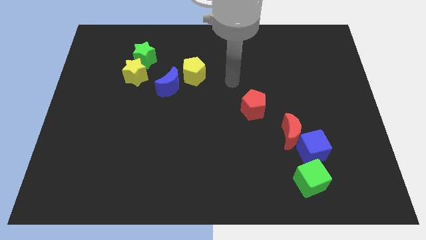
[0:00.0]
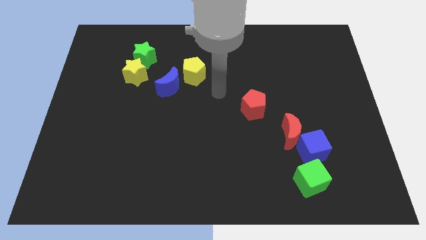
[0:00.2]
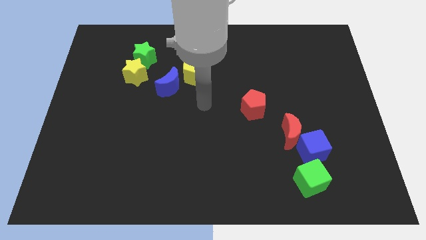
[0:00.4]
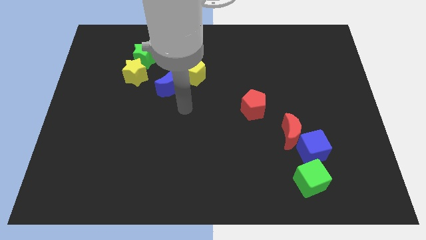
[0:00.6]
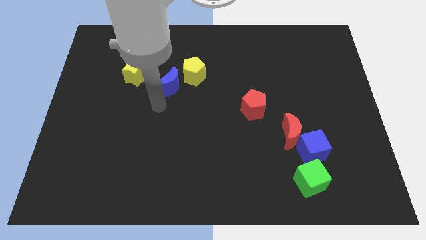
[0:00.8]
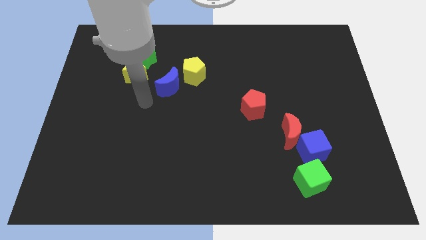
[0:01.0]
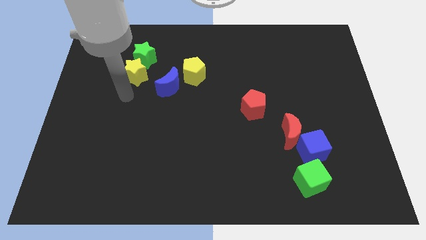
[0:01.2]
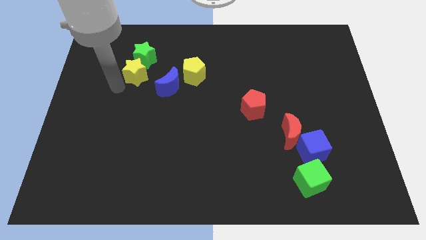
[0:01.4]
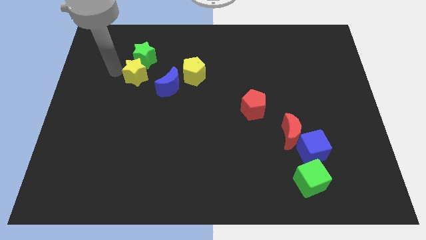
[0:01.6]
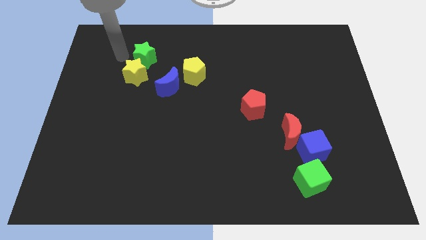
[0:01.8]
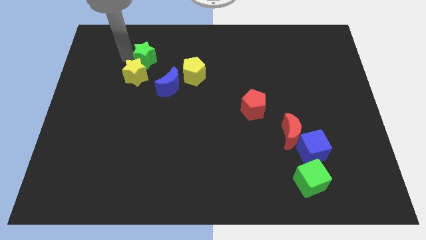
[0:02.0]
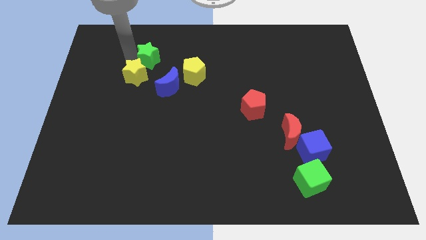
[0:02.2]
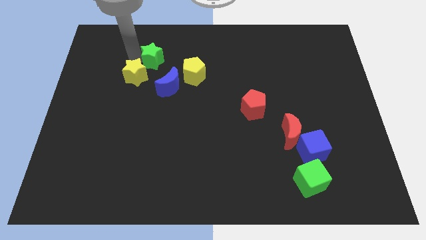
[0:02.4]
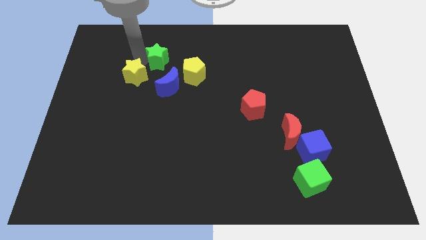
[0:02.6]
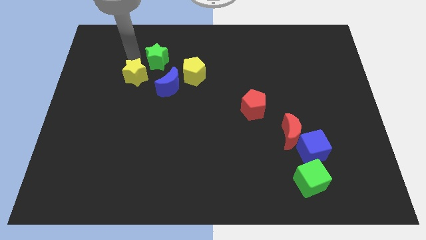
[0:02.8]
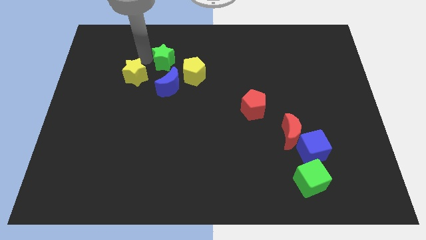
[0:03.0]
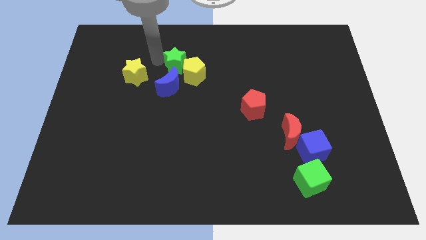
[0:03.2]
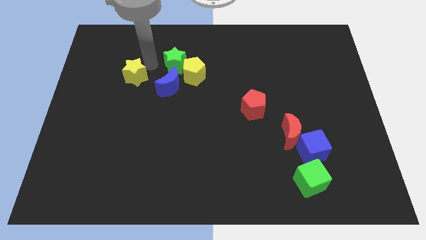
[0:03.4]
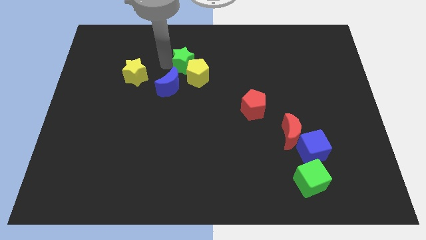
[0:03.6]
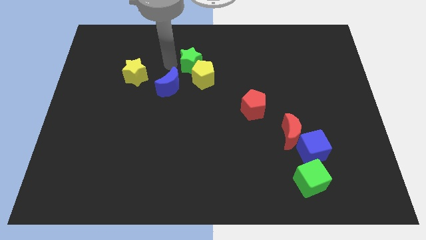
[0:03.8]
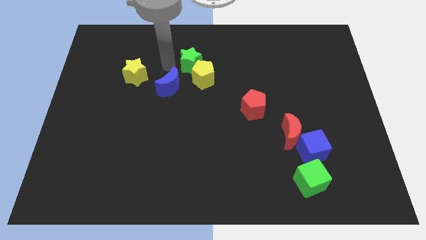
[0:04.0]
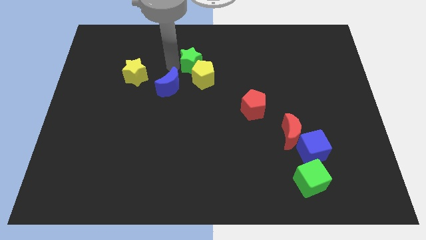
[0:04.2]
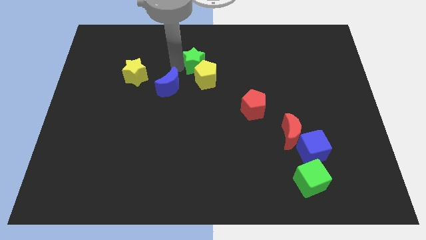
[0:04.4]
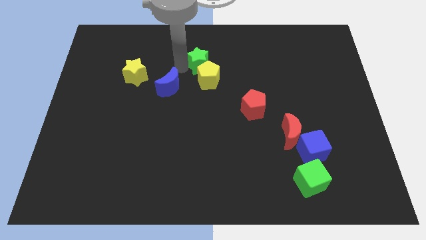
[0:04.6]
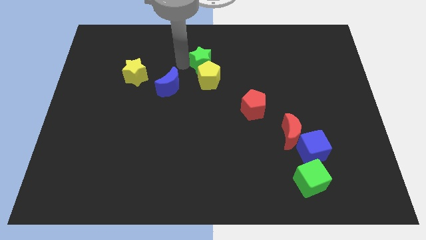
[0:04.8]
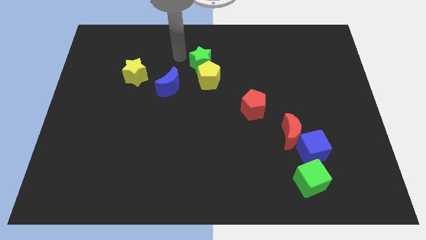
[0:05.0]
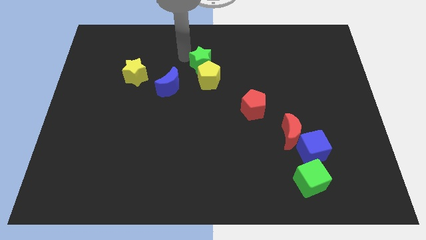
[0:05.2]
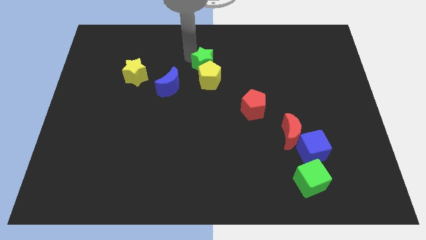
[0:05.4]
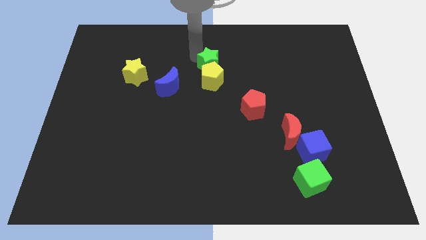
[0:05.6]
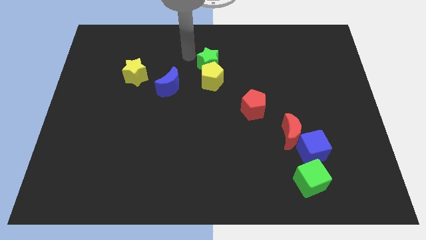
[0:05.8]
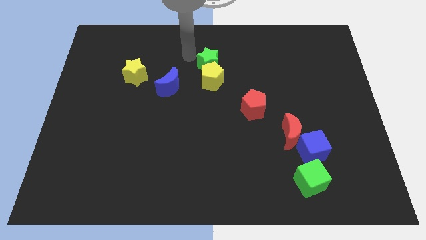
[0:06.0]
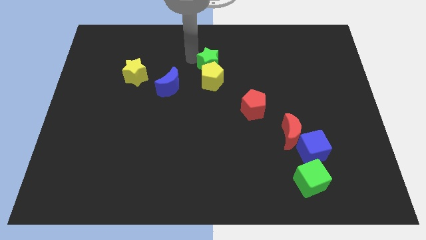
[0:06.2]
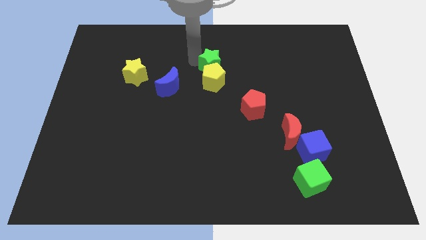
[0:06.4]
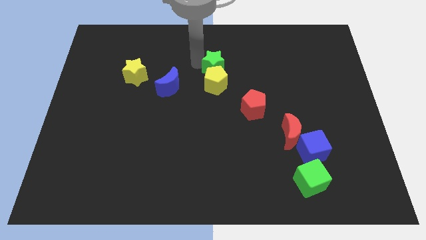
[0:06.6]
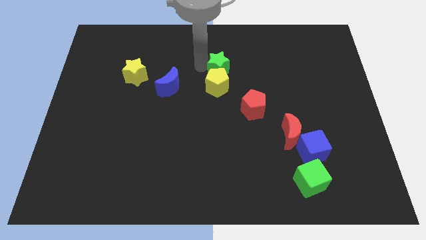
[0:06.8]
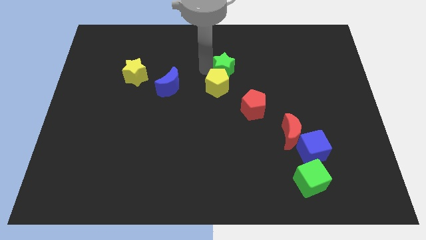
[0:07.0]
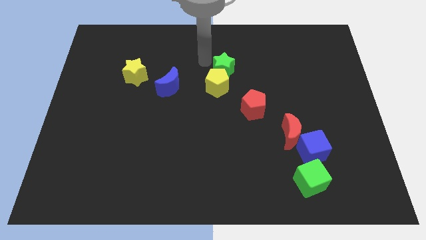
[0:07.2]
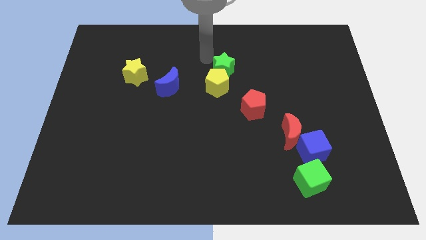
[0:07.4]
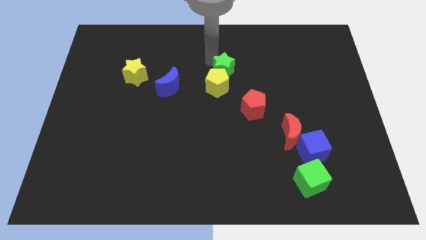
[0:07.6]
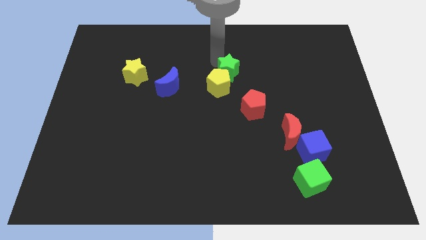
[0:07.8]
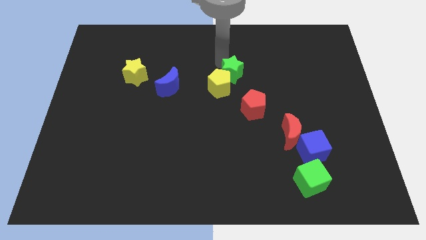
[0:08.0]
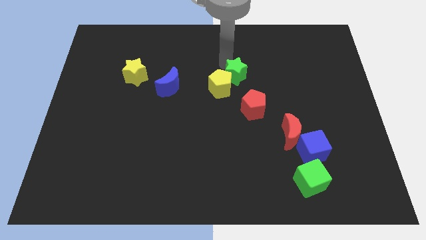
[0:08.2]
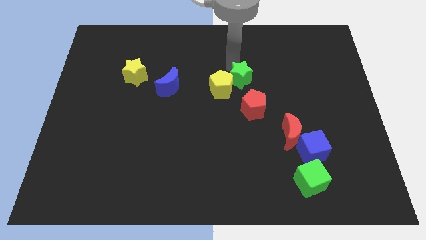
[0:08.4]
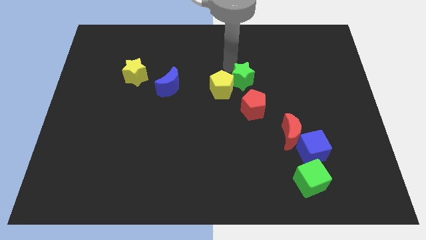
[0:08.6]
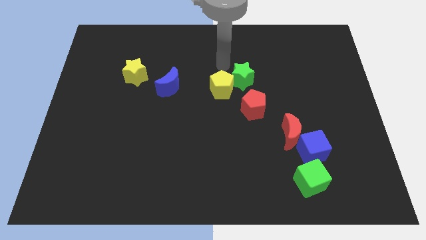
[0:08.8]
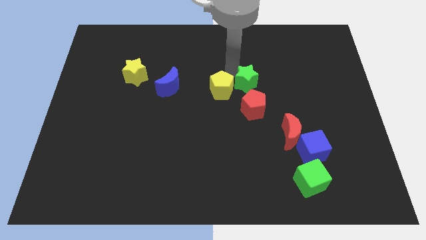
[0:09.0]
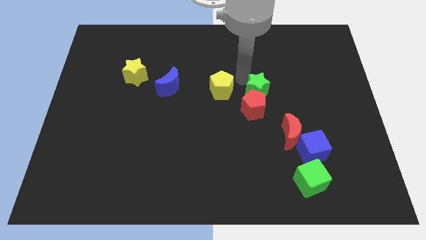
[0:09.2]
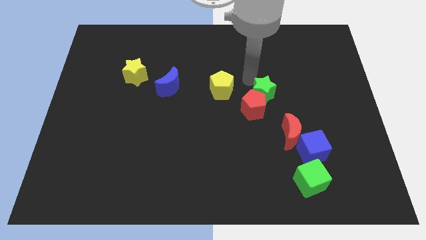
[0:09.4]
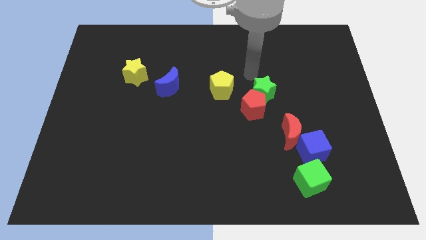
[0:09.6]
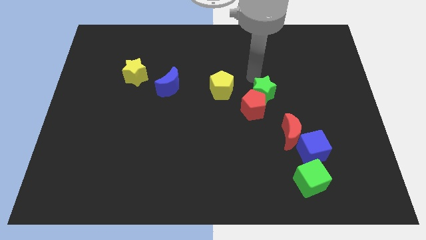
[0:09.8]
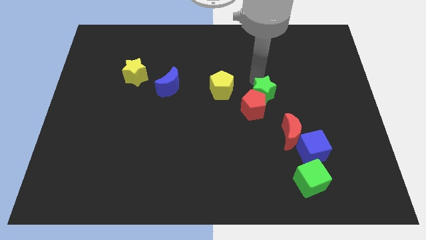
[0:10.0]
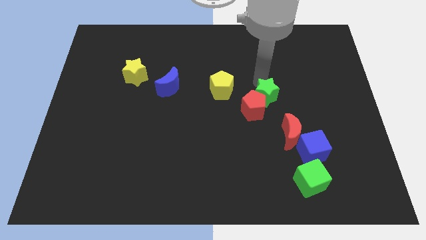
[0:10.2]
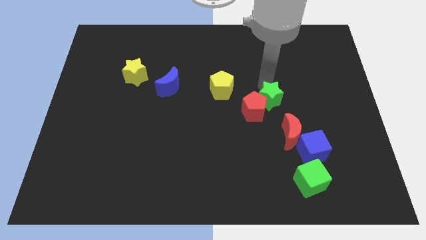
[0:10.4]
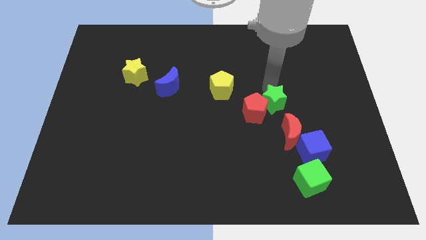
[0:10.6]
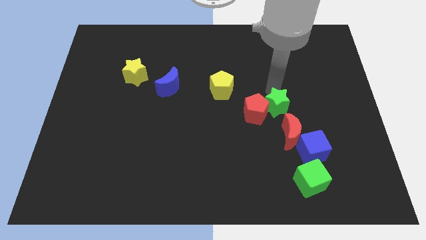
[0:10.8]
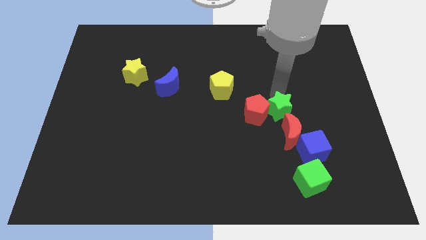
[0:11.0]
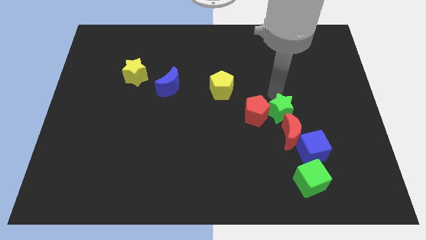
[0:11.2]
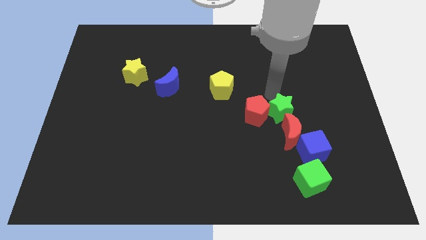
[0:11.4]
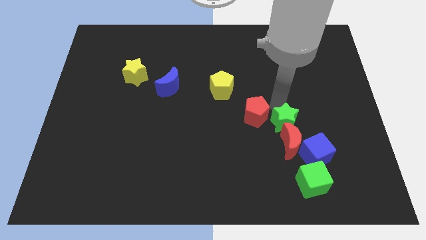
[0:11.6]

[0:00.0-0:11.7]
push the green star next to the red moon

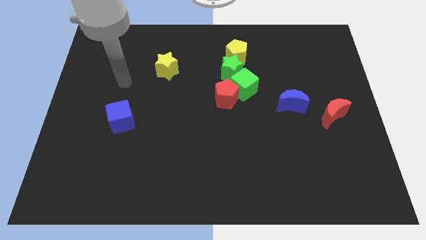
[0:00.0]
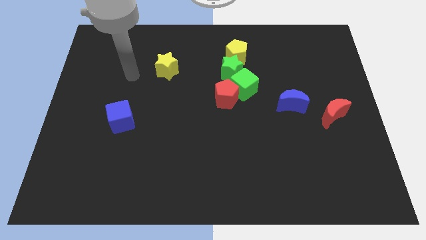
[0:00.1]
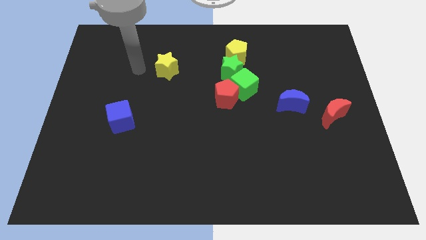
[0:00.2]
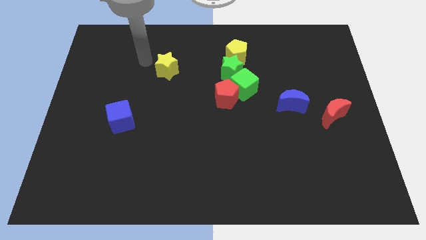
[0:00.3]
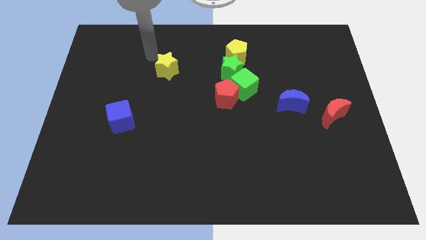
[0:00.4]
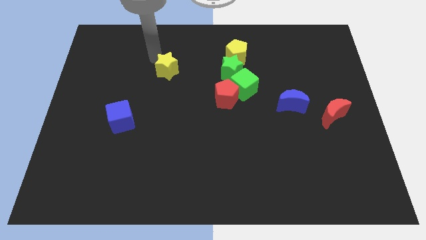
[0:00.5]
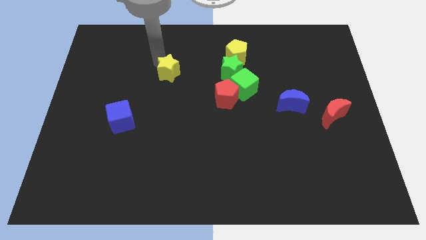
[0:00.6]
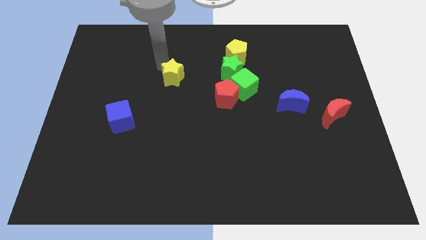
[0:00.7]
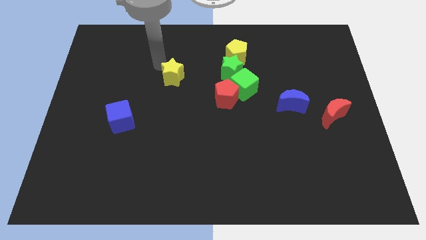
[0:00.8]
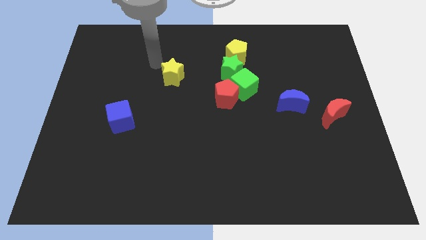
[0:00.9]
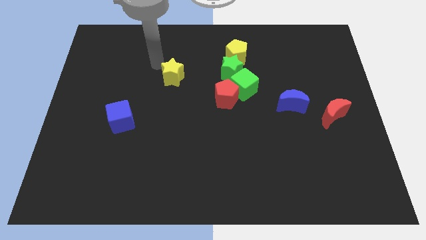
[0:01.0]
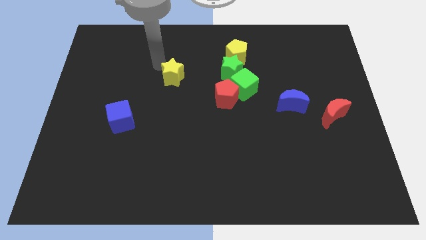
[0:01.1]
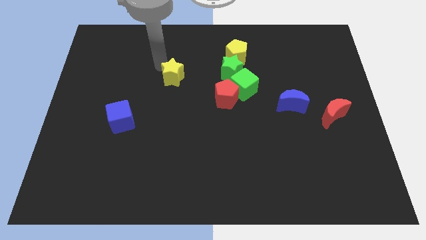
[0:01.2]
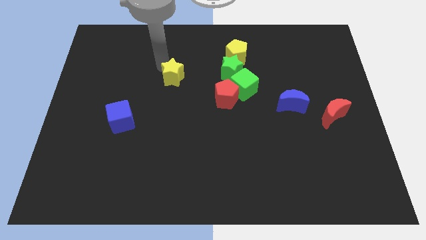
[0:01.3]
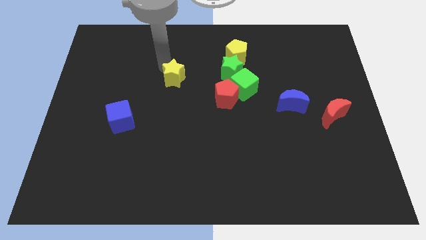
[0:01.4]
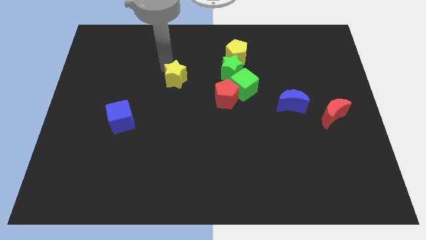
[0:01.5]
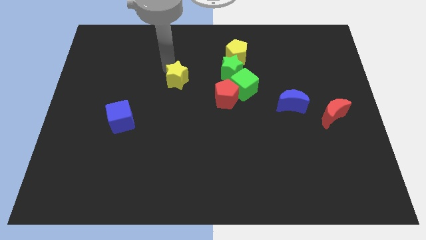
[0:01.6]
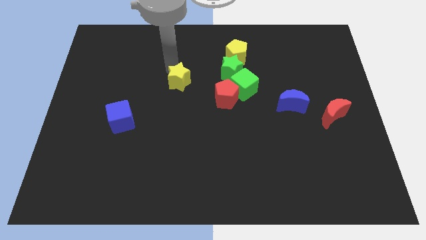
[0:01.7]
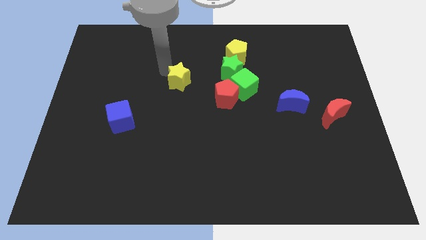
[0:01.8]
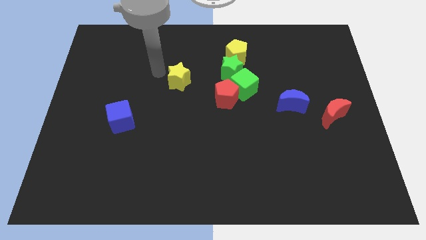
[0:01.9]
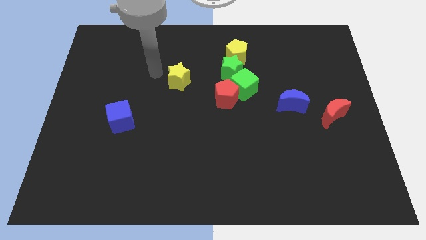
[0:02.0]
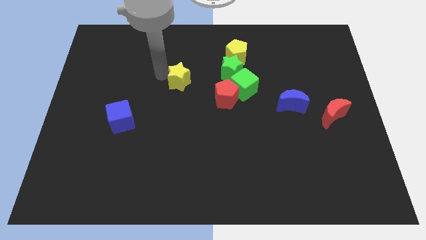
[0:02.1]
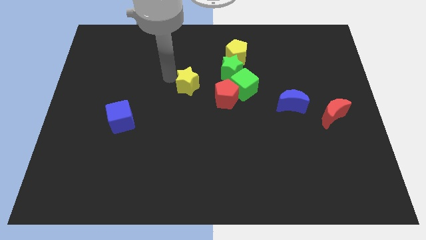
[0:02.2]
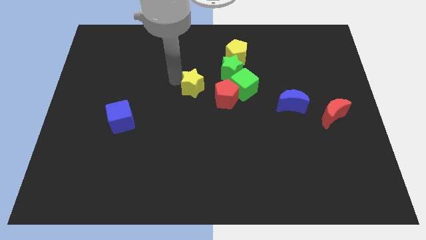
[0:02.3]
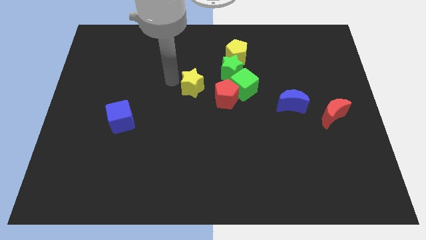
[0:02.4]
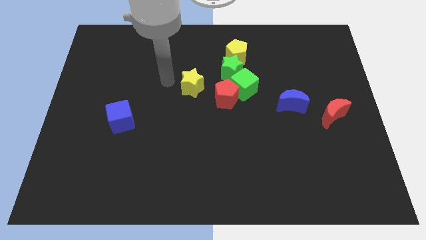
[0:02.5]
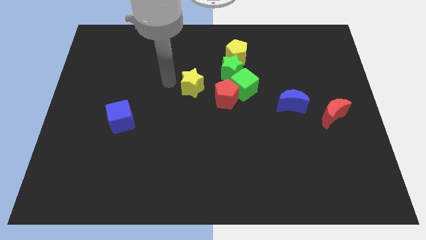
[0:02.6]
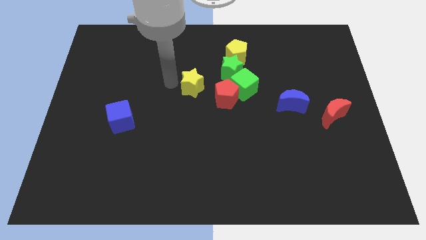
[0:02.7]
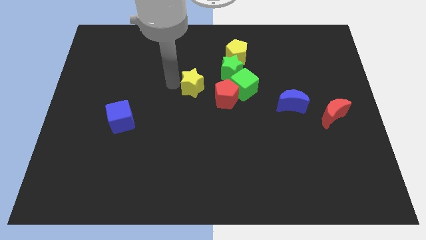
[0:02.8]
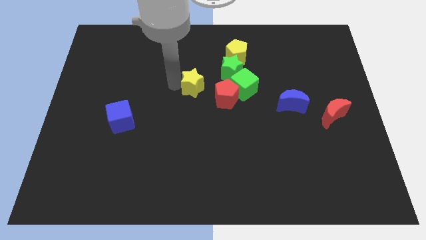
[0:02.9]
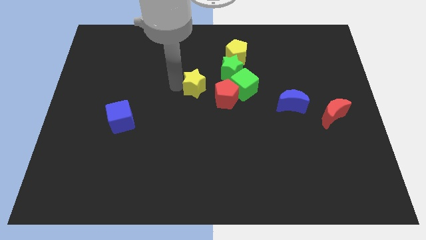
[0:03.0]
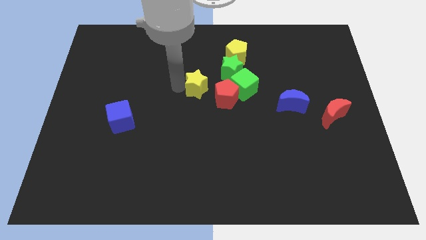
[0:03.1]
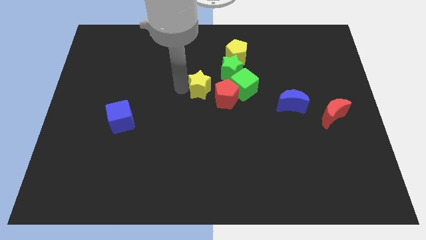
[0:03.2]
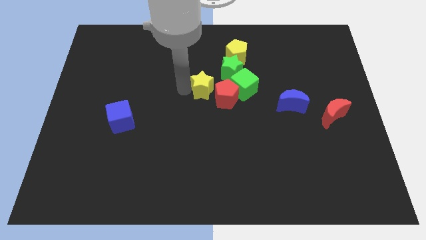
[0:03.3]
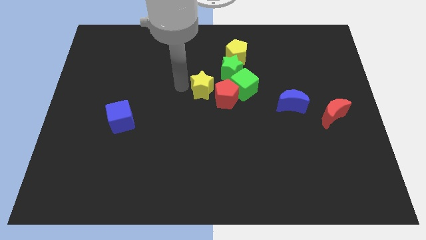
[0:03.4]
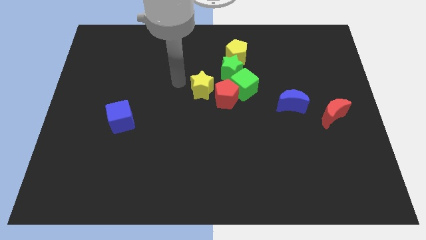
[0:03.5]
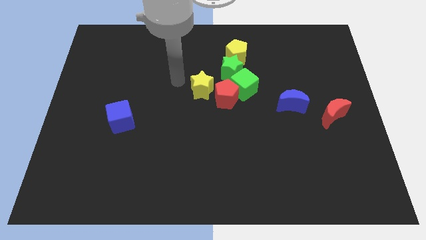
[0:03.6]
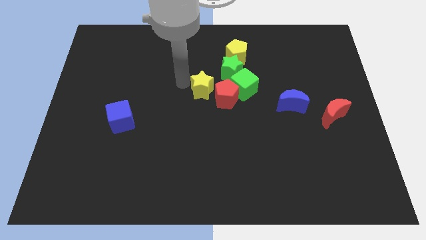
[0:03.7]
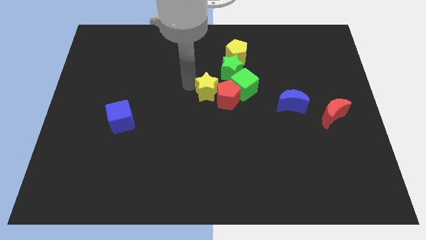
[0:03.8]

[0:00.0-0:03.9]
put the yellow star to the red pentagon
